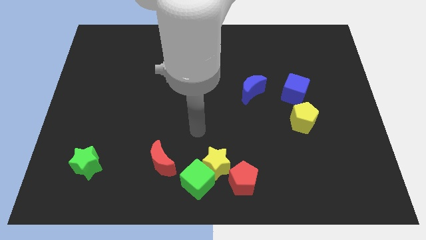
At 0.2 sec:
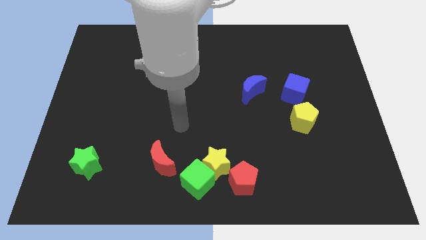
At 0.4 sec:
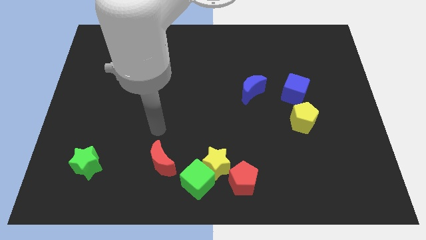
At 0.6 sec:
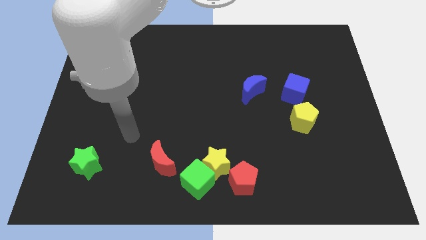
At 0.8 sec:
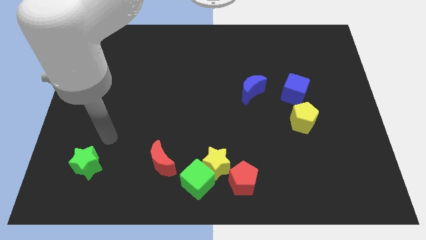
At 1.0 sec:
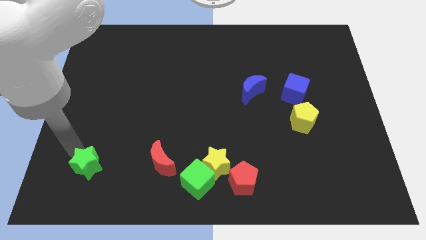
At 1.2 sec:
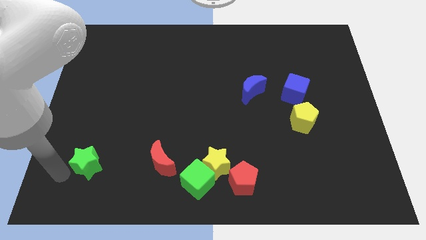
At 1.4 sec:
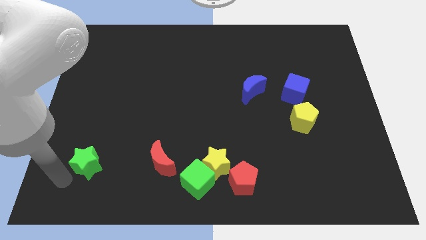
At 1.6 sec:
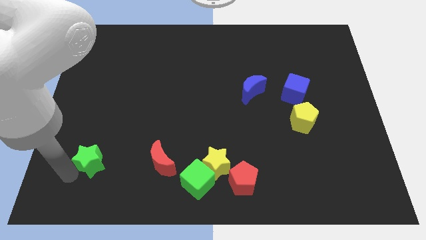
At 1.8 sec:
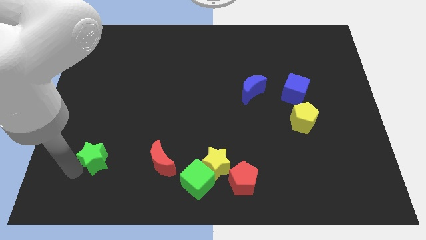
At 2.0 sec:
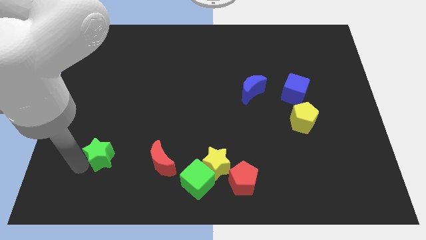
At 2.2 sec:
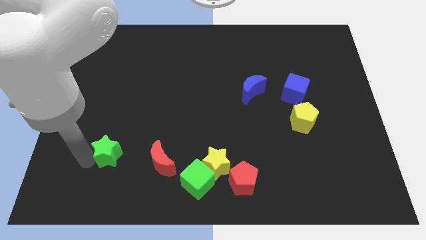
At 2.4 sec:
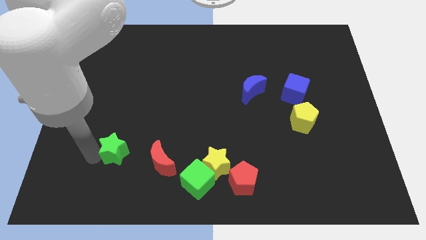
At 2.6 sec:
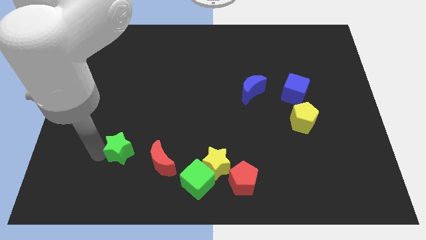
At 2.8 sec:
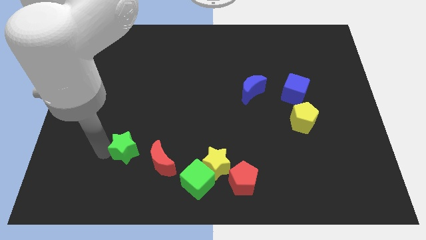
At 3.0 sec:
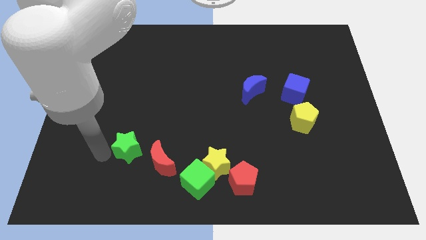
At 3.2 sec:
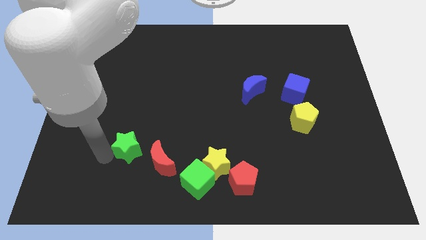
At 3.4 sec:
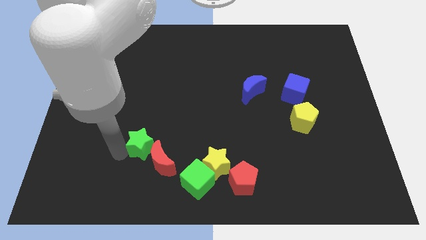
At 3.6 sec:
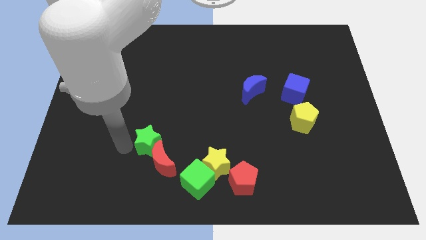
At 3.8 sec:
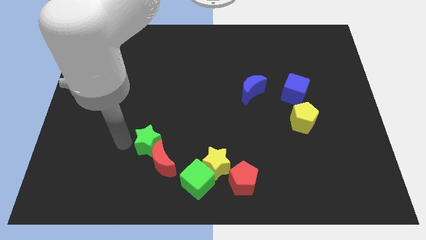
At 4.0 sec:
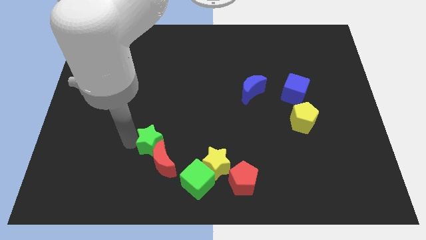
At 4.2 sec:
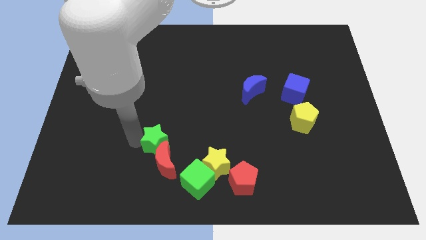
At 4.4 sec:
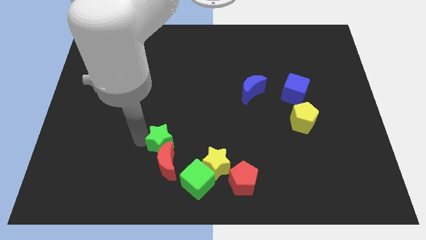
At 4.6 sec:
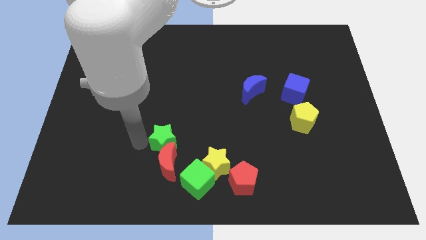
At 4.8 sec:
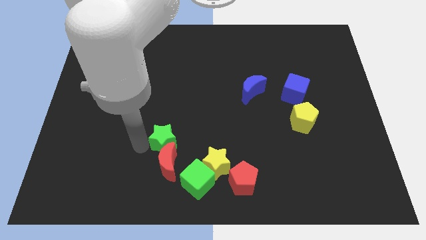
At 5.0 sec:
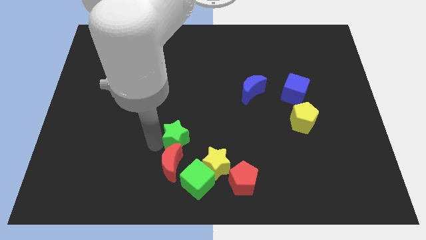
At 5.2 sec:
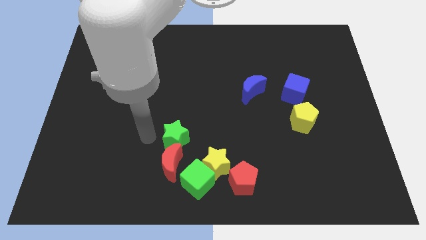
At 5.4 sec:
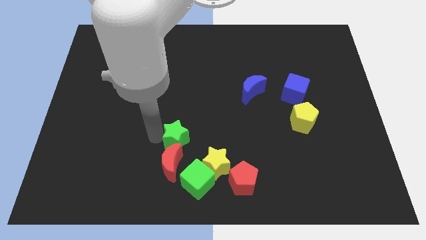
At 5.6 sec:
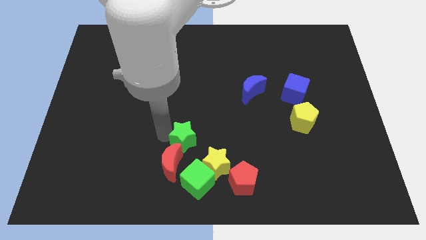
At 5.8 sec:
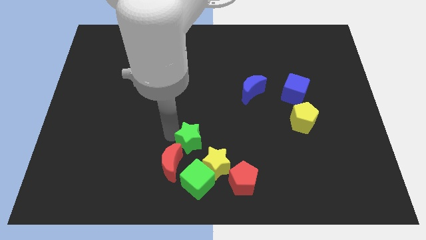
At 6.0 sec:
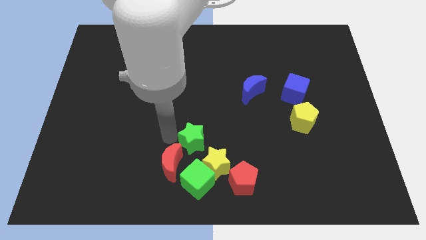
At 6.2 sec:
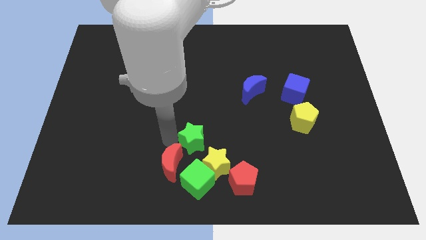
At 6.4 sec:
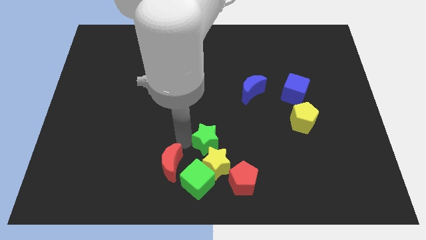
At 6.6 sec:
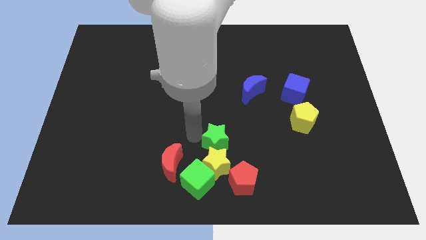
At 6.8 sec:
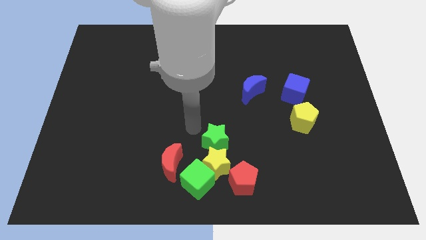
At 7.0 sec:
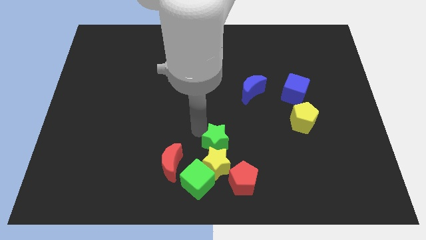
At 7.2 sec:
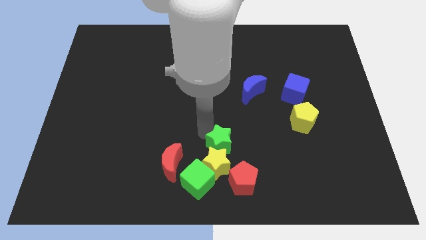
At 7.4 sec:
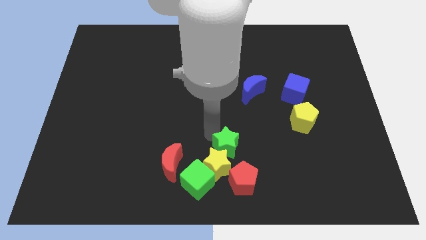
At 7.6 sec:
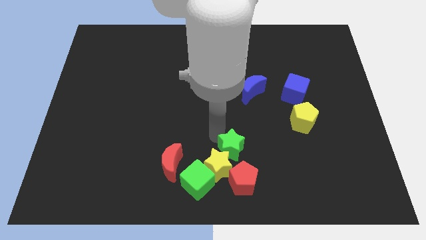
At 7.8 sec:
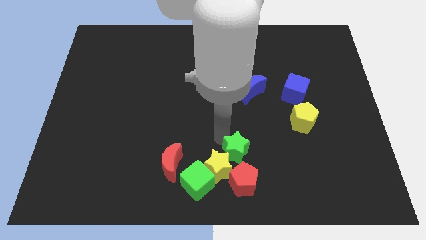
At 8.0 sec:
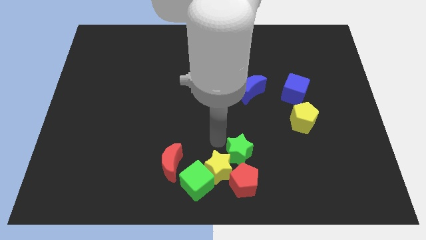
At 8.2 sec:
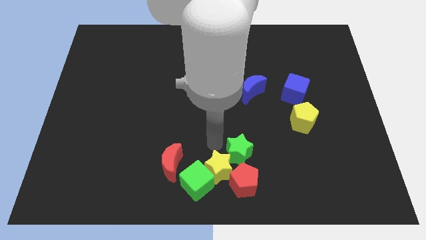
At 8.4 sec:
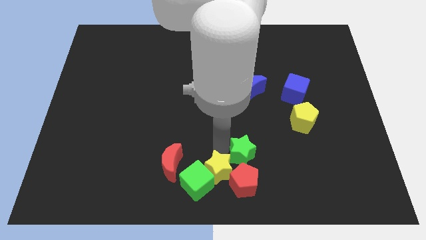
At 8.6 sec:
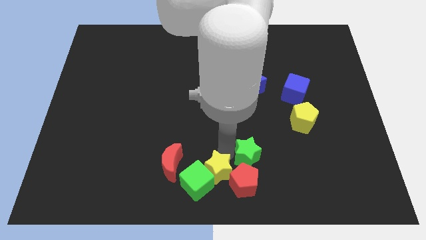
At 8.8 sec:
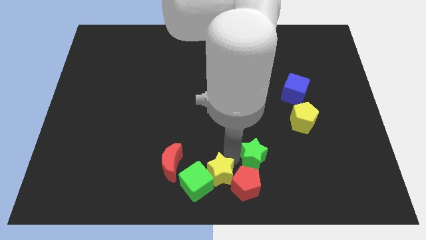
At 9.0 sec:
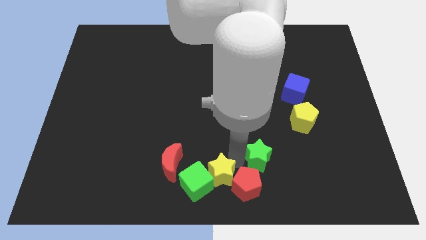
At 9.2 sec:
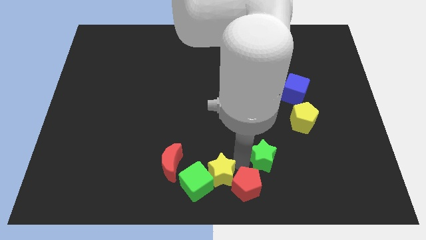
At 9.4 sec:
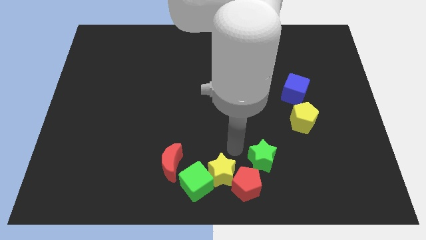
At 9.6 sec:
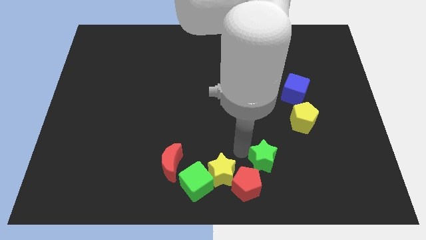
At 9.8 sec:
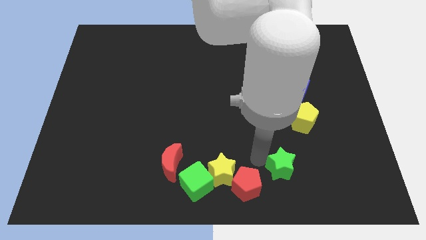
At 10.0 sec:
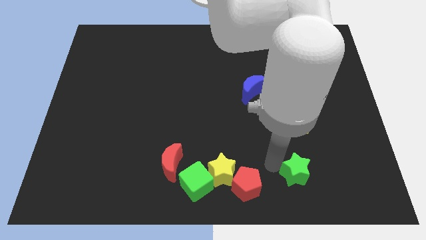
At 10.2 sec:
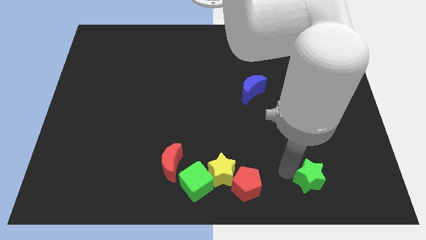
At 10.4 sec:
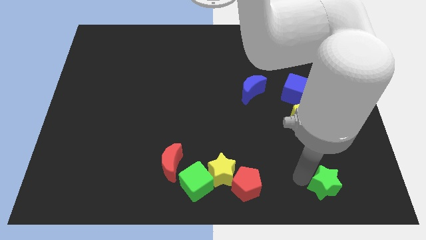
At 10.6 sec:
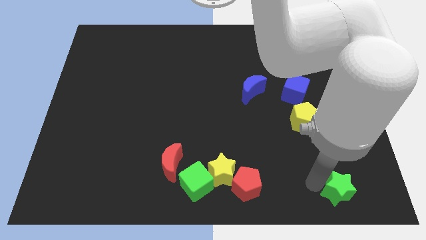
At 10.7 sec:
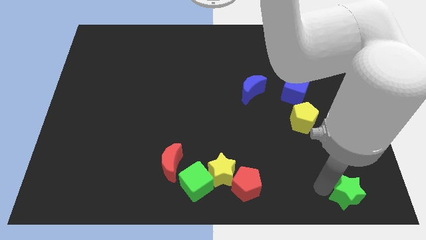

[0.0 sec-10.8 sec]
push the green star to the bottom right of the board

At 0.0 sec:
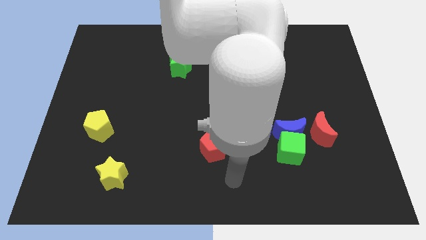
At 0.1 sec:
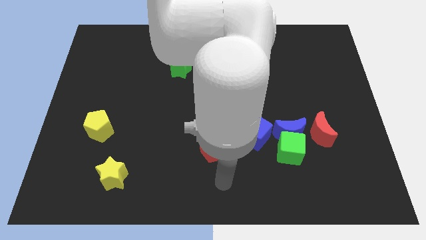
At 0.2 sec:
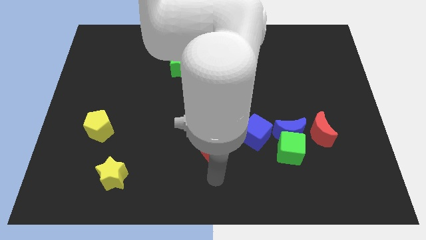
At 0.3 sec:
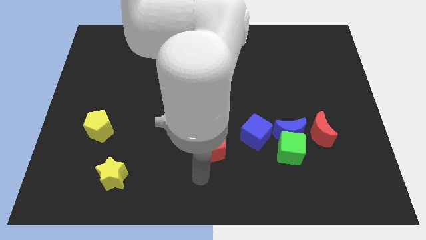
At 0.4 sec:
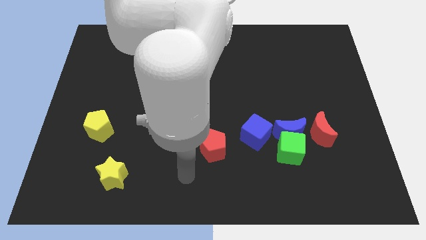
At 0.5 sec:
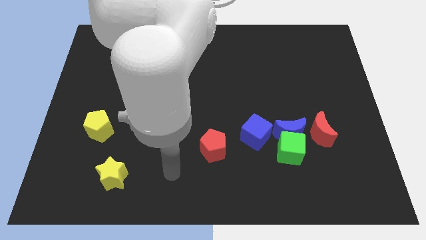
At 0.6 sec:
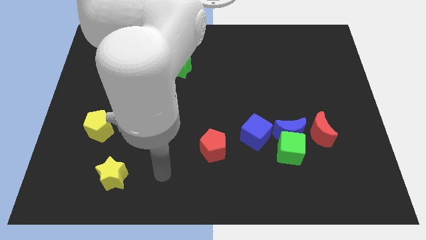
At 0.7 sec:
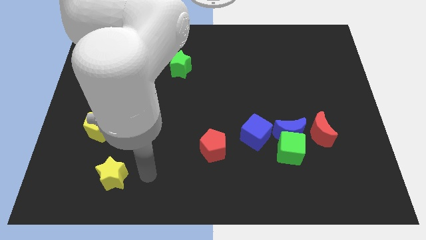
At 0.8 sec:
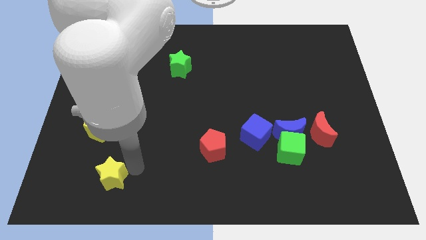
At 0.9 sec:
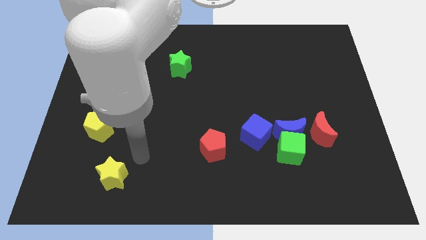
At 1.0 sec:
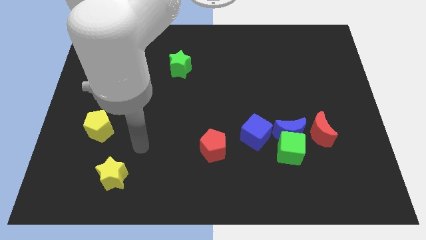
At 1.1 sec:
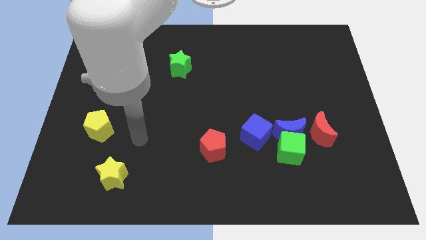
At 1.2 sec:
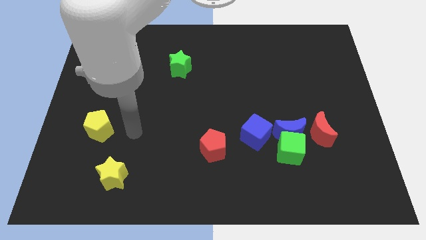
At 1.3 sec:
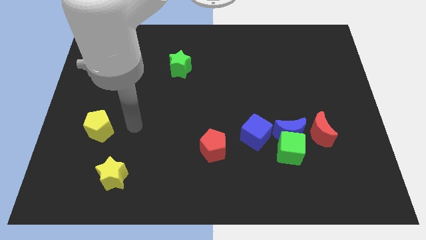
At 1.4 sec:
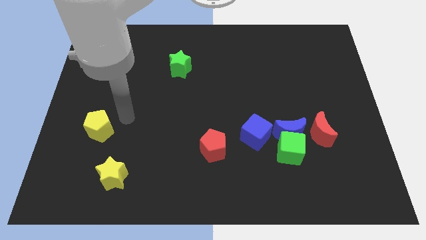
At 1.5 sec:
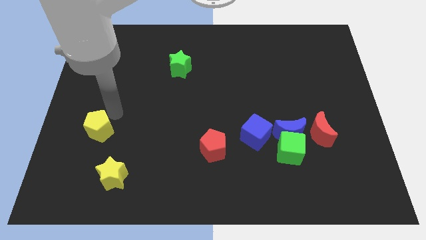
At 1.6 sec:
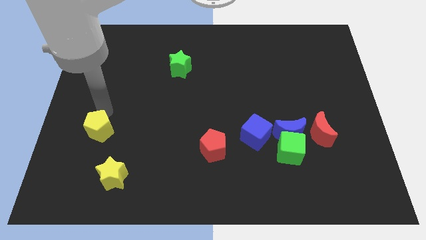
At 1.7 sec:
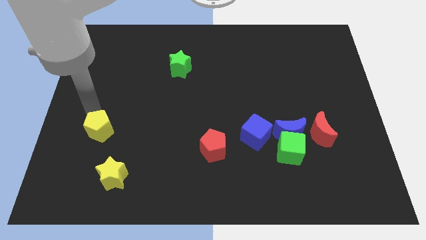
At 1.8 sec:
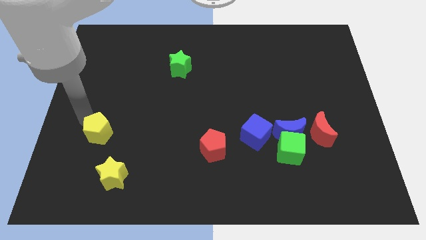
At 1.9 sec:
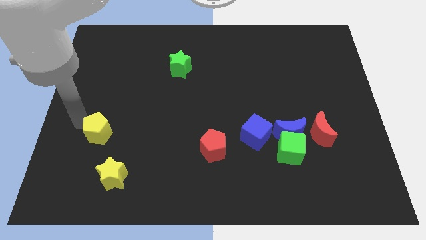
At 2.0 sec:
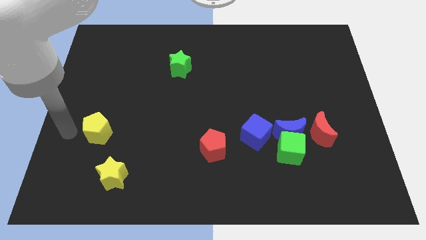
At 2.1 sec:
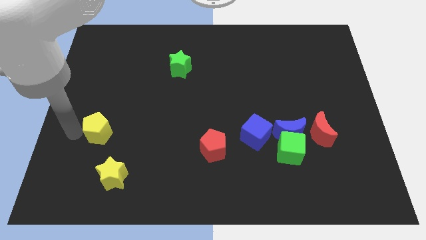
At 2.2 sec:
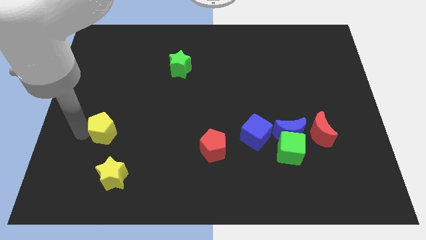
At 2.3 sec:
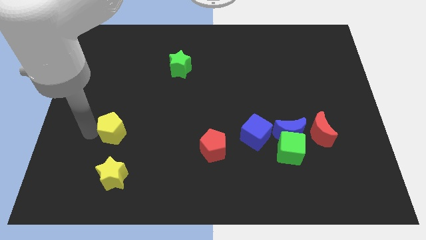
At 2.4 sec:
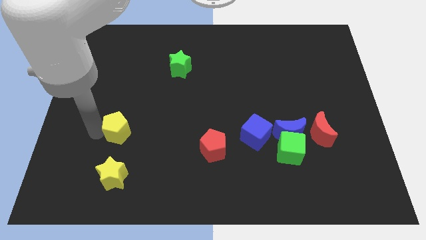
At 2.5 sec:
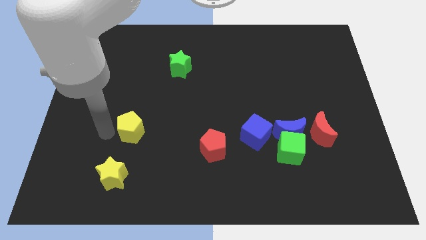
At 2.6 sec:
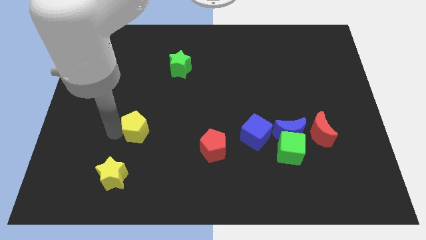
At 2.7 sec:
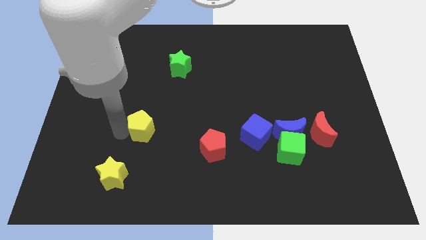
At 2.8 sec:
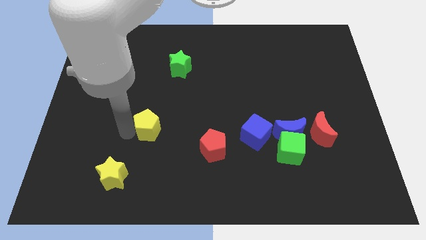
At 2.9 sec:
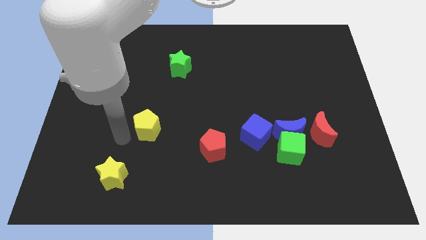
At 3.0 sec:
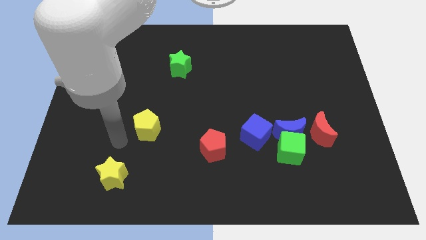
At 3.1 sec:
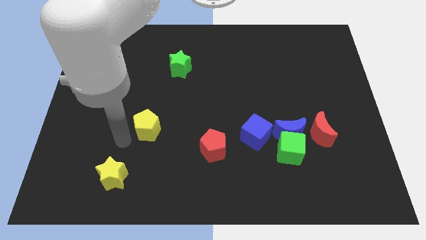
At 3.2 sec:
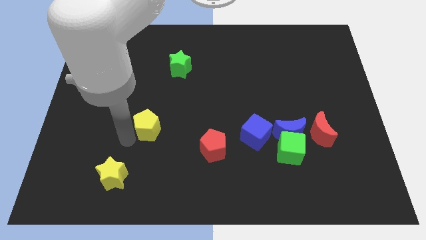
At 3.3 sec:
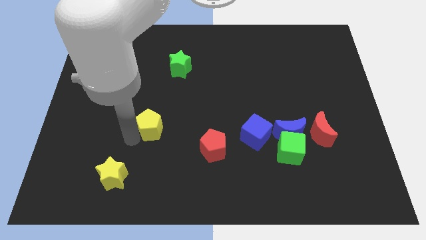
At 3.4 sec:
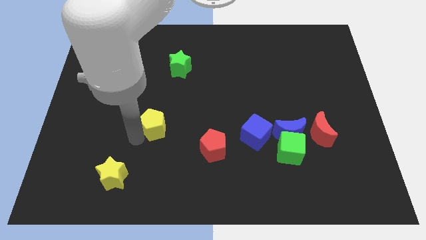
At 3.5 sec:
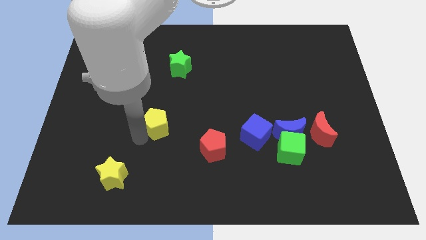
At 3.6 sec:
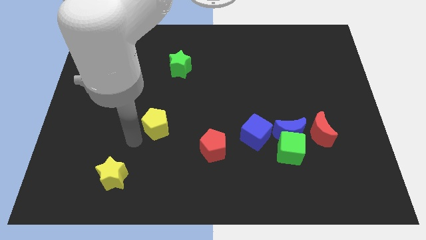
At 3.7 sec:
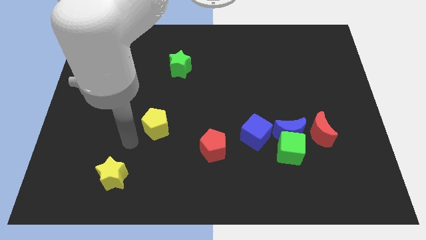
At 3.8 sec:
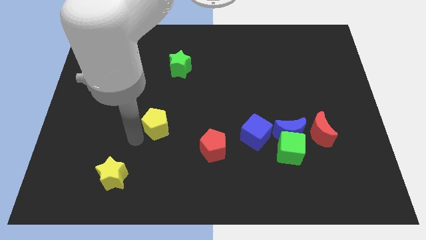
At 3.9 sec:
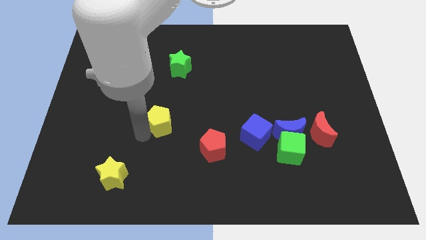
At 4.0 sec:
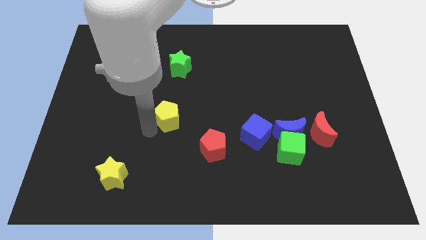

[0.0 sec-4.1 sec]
slide the yellow pentagon to the middle of the board
